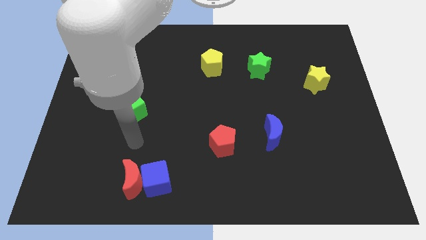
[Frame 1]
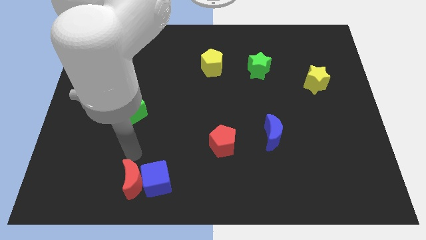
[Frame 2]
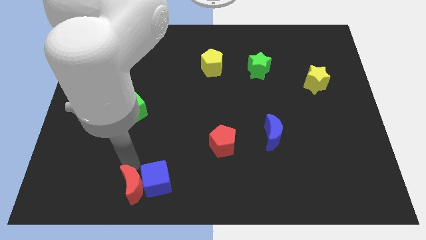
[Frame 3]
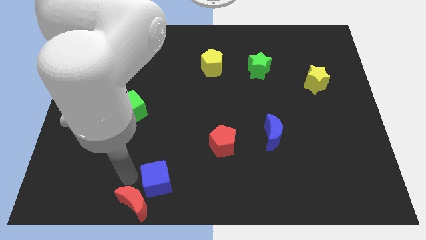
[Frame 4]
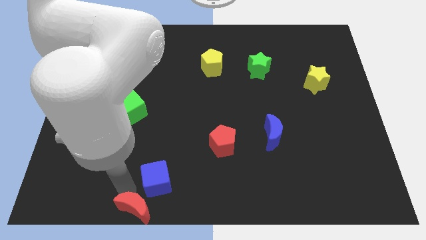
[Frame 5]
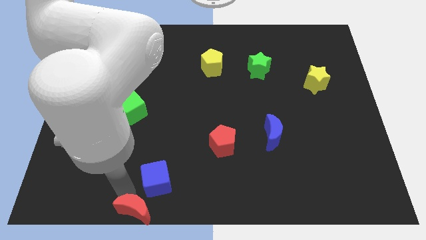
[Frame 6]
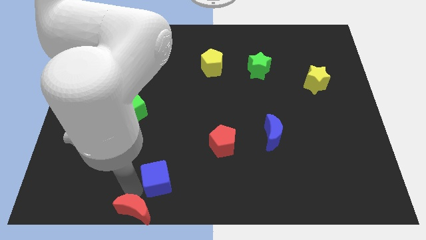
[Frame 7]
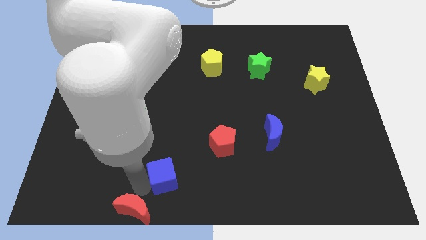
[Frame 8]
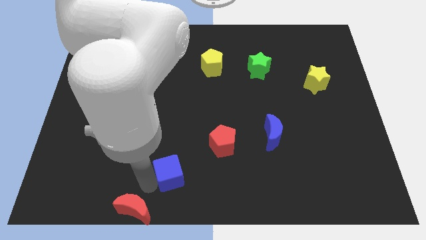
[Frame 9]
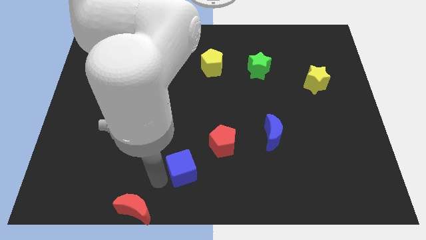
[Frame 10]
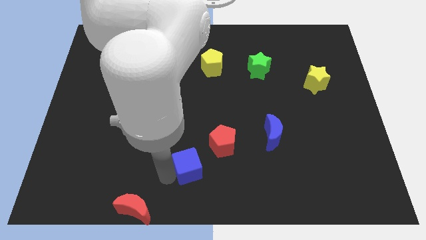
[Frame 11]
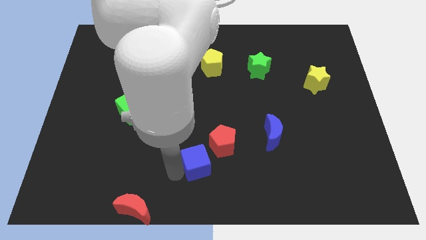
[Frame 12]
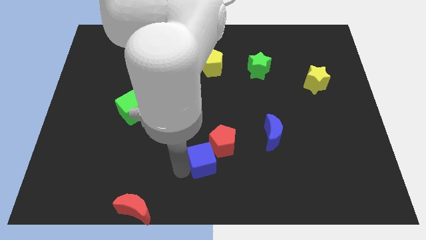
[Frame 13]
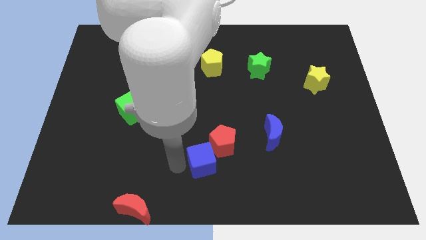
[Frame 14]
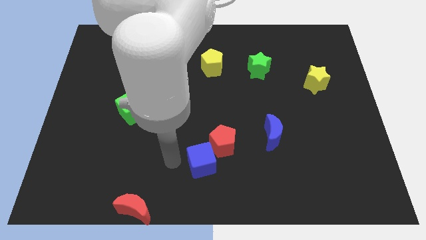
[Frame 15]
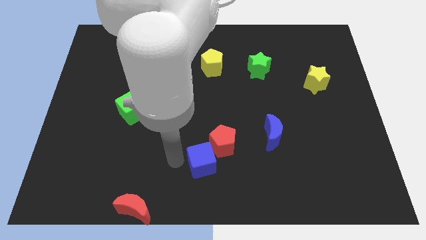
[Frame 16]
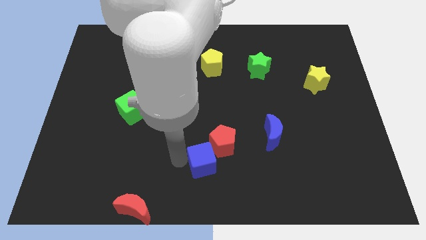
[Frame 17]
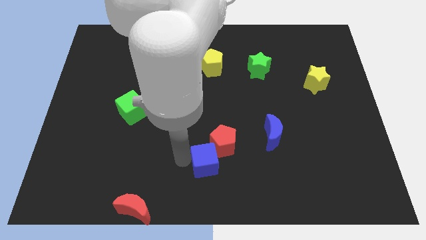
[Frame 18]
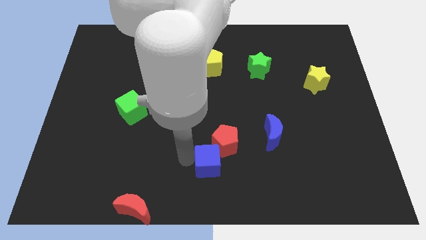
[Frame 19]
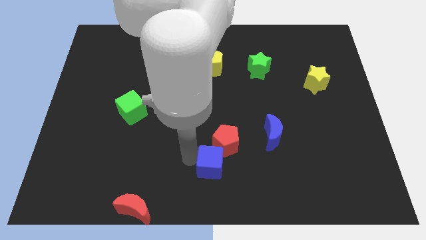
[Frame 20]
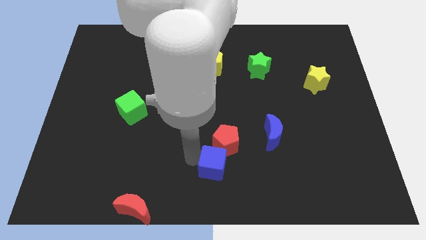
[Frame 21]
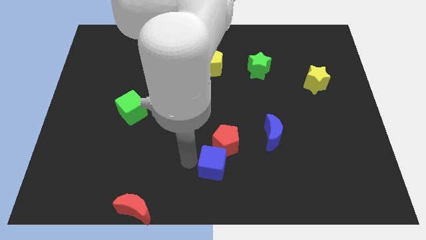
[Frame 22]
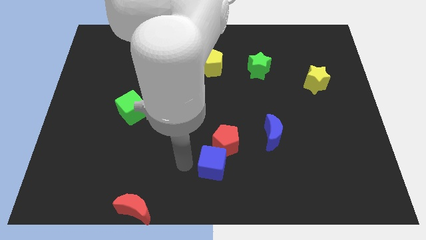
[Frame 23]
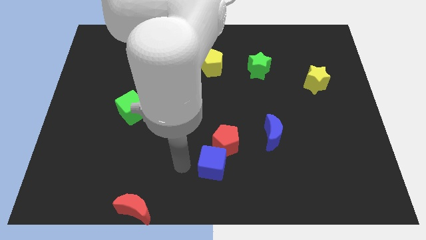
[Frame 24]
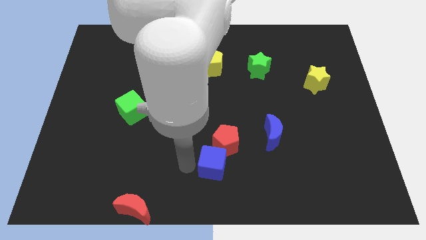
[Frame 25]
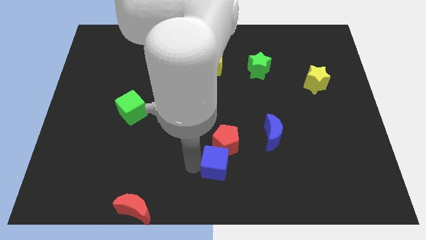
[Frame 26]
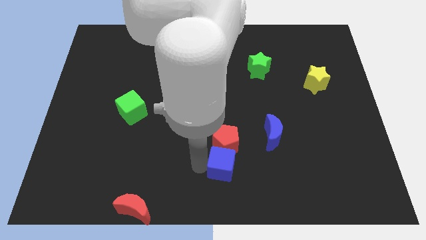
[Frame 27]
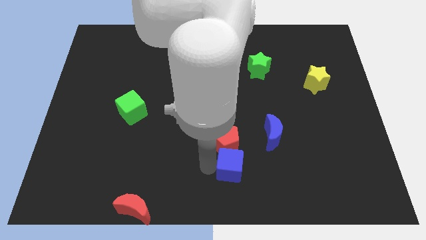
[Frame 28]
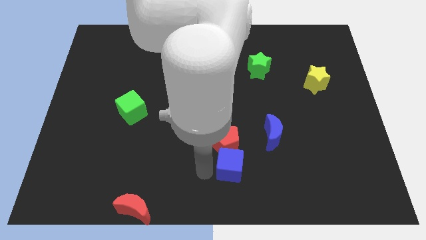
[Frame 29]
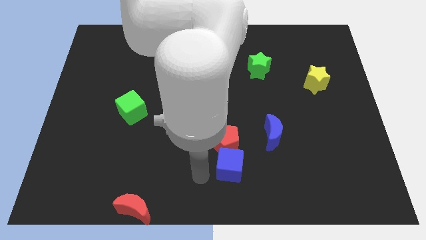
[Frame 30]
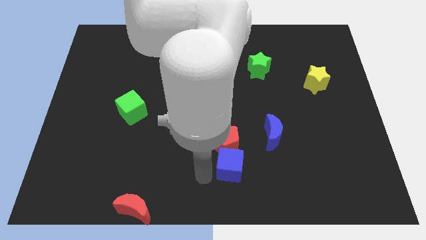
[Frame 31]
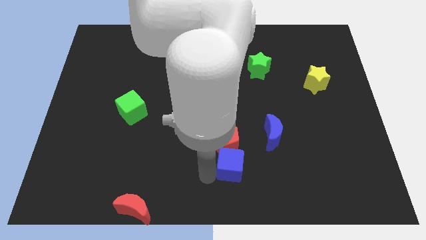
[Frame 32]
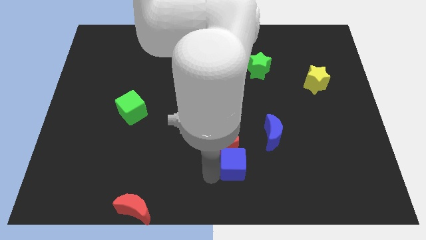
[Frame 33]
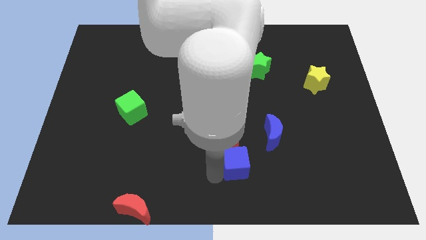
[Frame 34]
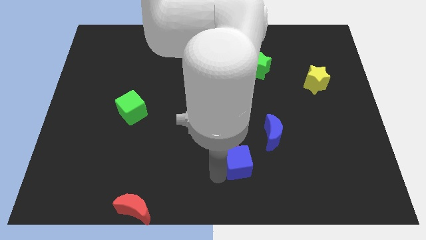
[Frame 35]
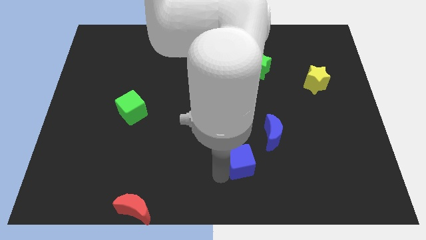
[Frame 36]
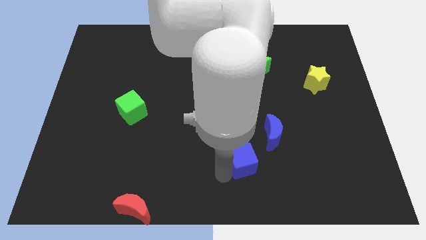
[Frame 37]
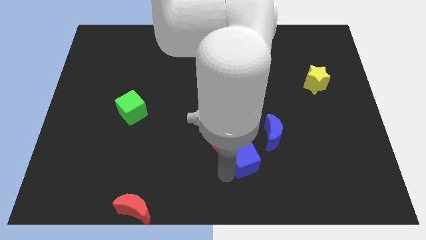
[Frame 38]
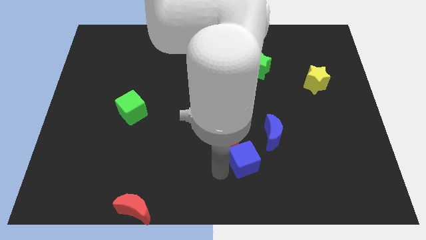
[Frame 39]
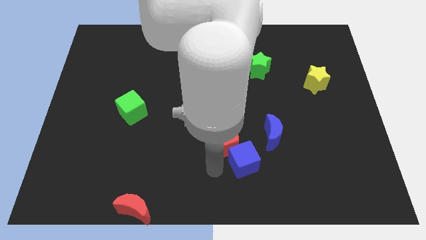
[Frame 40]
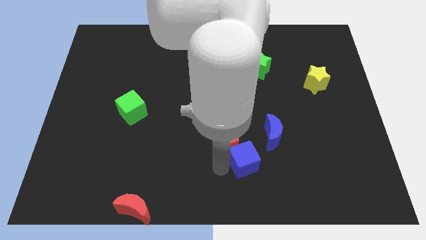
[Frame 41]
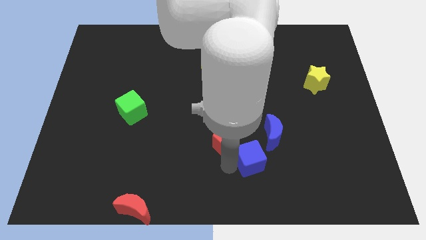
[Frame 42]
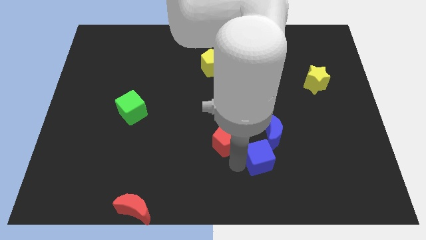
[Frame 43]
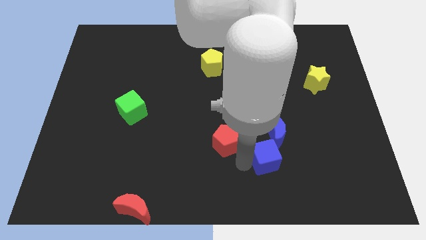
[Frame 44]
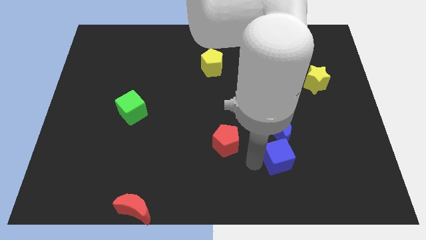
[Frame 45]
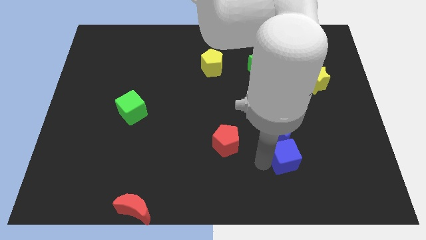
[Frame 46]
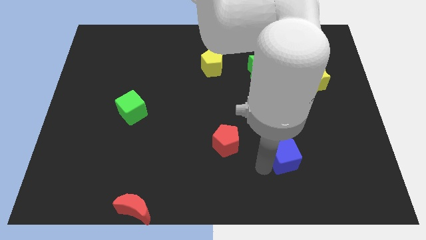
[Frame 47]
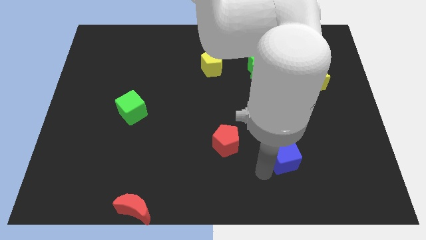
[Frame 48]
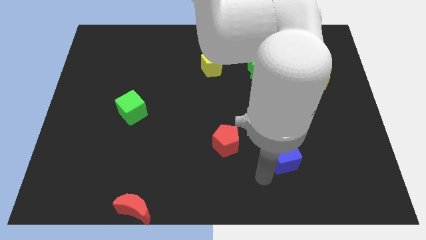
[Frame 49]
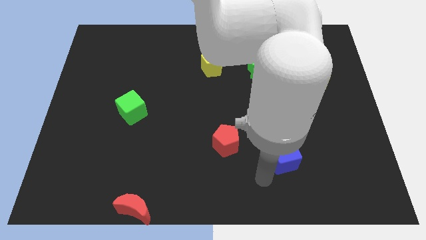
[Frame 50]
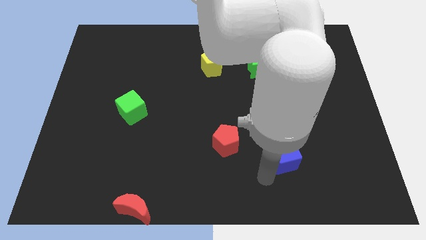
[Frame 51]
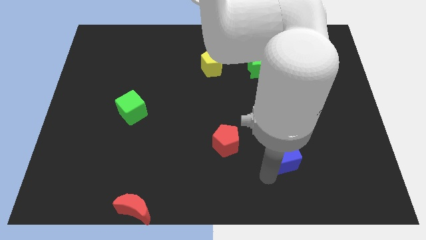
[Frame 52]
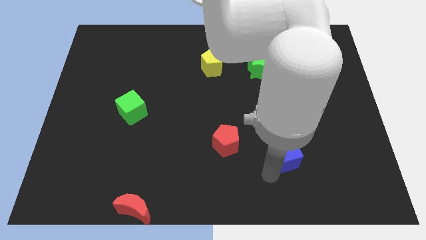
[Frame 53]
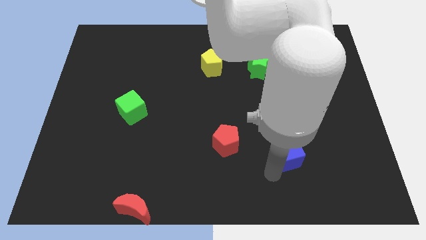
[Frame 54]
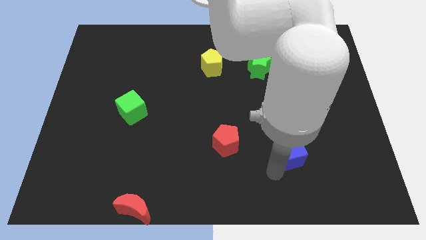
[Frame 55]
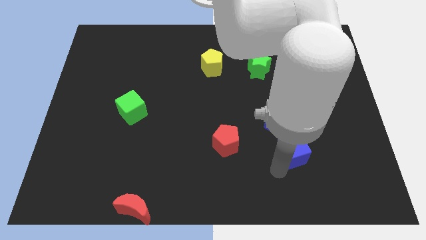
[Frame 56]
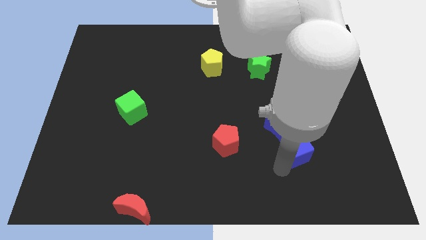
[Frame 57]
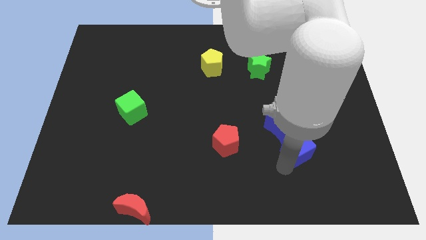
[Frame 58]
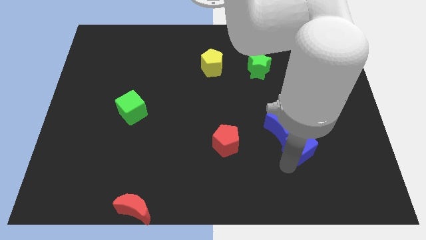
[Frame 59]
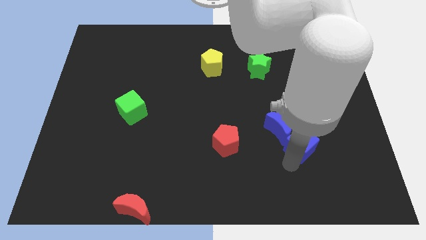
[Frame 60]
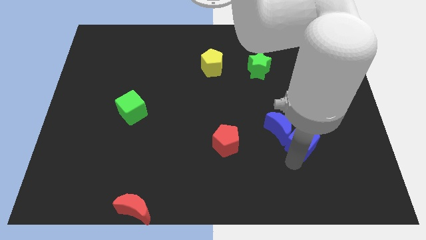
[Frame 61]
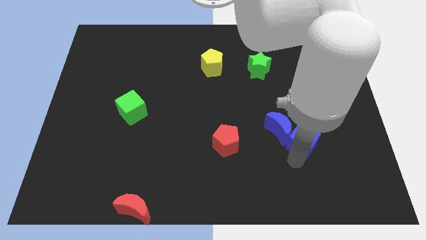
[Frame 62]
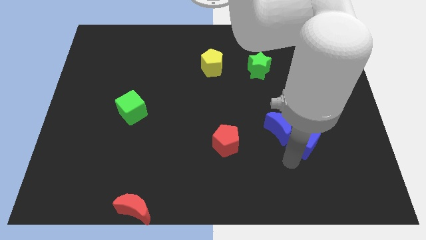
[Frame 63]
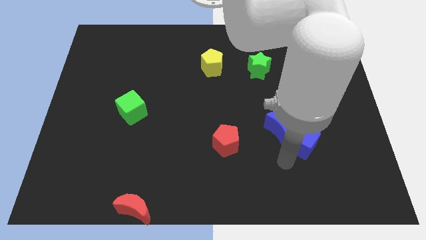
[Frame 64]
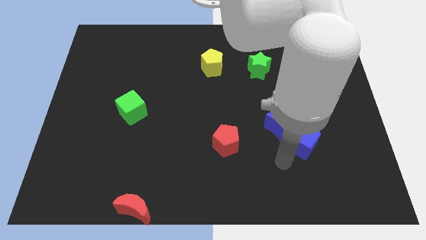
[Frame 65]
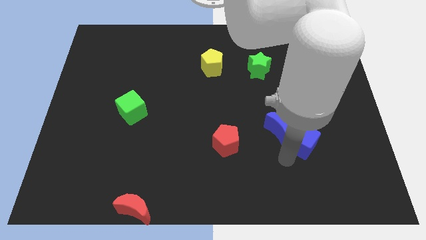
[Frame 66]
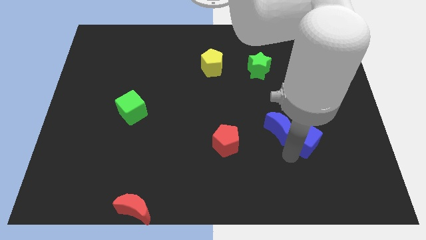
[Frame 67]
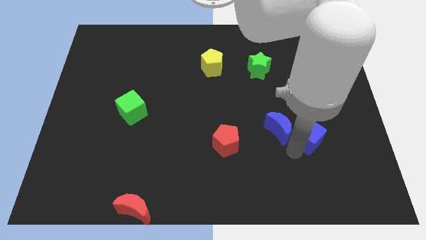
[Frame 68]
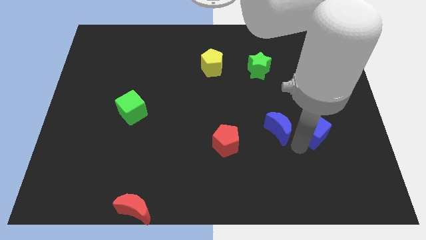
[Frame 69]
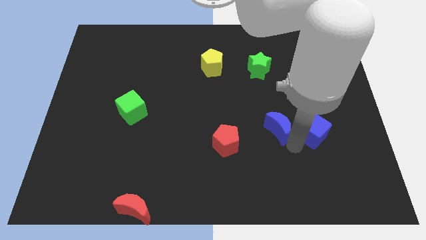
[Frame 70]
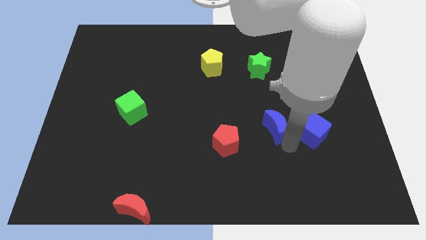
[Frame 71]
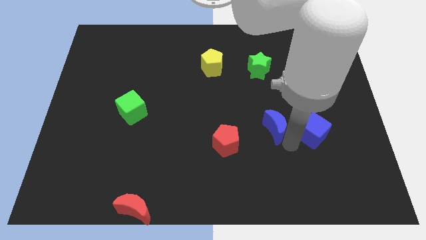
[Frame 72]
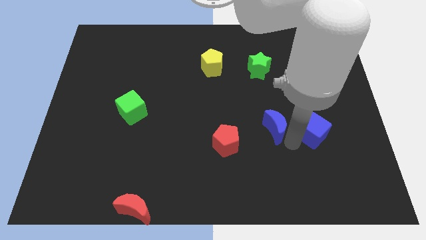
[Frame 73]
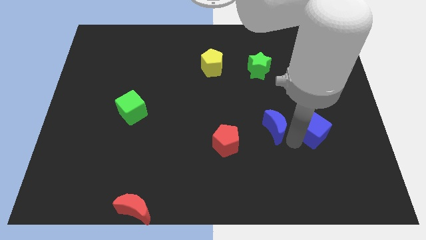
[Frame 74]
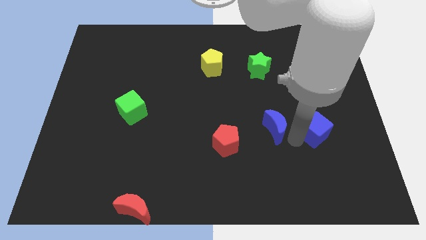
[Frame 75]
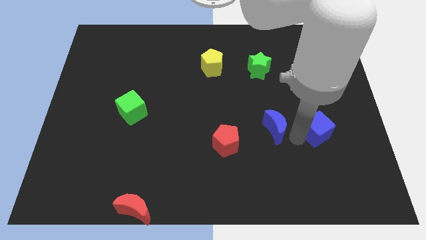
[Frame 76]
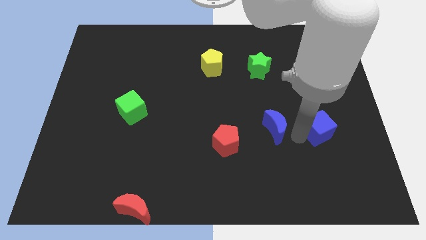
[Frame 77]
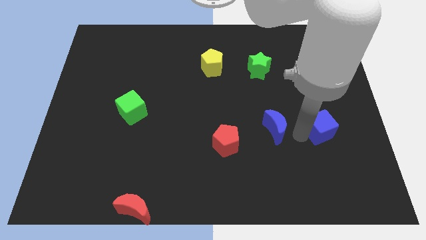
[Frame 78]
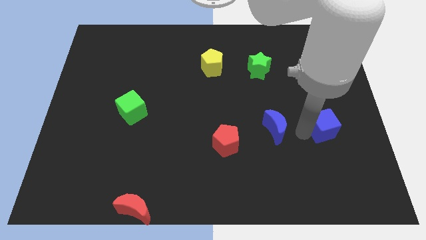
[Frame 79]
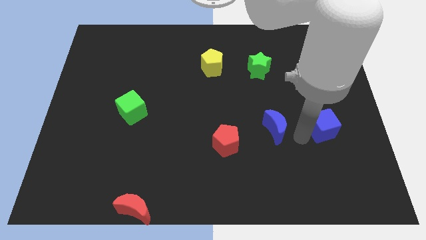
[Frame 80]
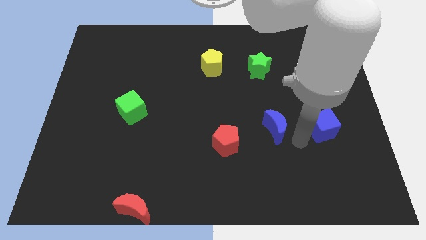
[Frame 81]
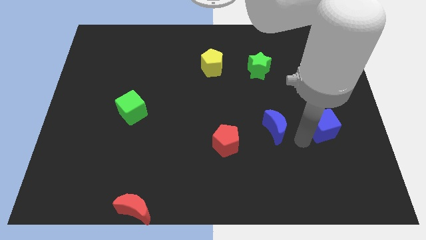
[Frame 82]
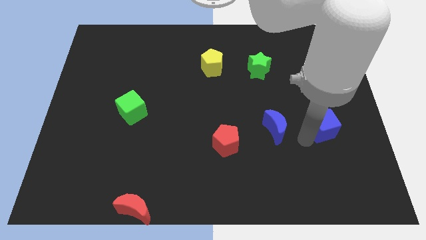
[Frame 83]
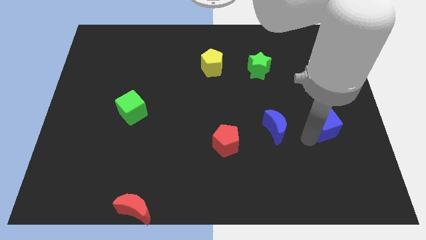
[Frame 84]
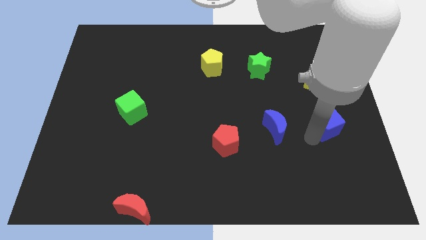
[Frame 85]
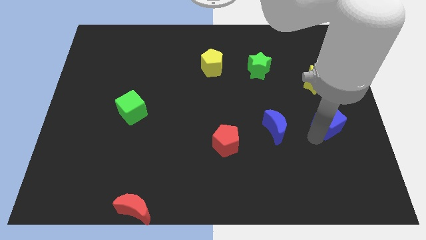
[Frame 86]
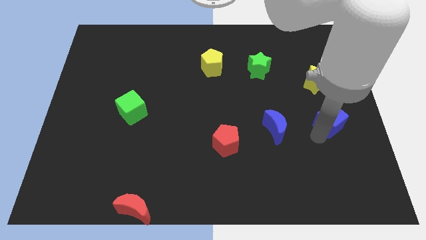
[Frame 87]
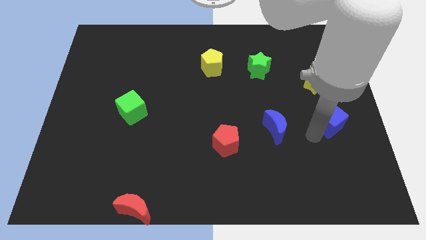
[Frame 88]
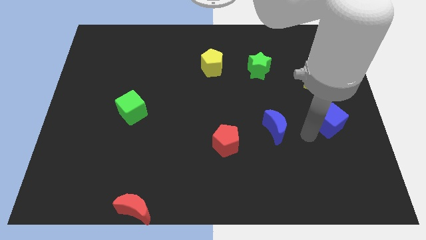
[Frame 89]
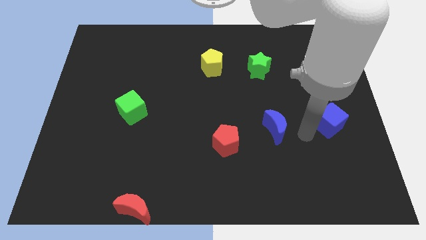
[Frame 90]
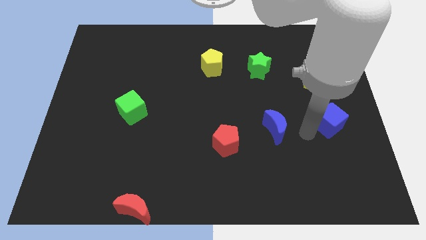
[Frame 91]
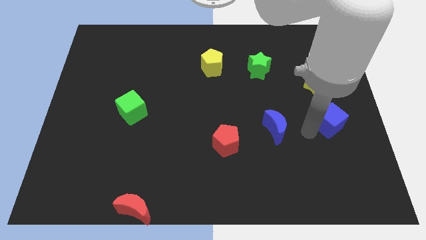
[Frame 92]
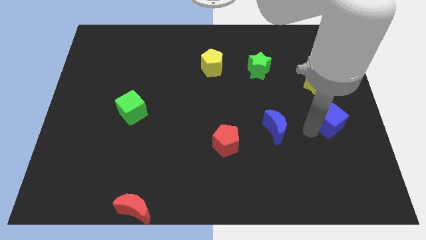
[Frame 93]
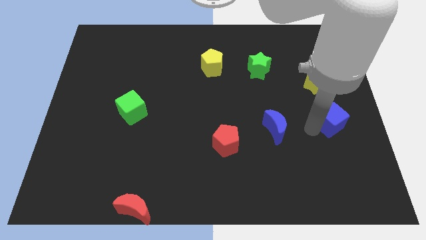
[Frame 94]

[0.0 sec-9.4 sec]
put the blue cube to the center right
